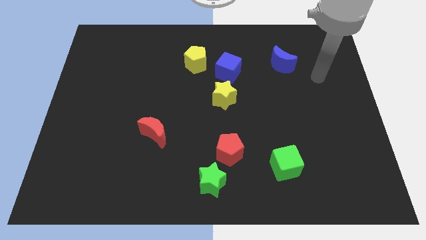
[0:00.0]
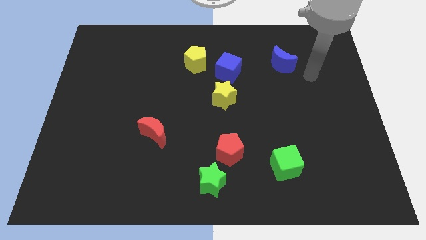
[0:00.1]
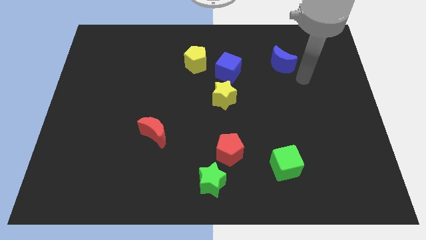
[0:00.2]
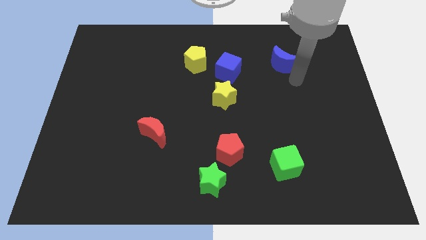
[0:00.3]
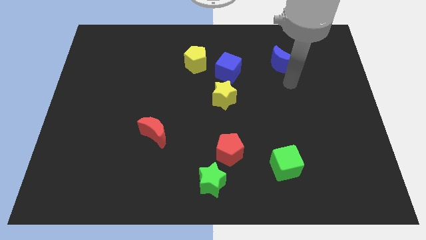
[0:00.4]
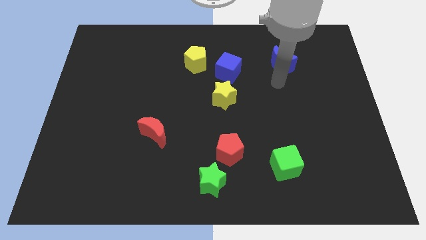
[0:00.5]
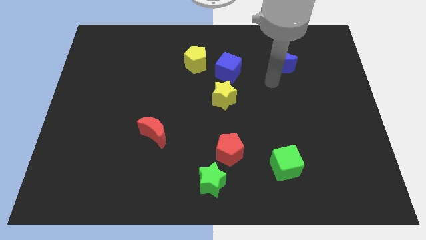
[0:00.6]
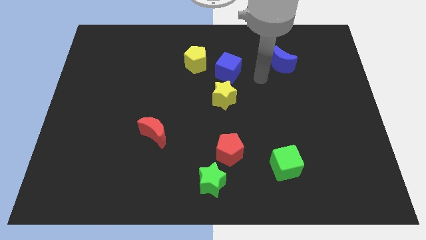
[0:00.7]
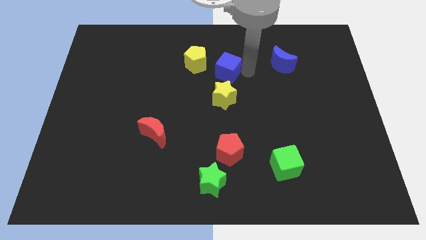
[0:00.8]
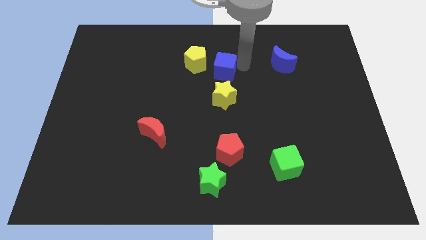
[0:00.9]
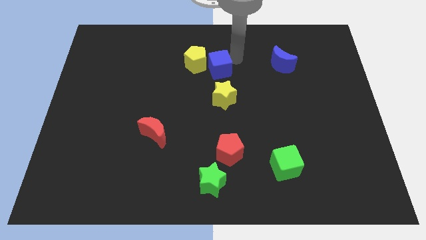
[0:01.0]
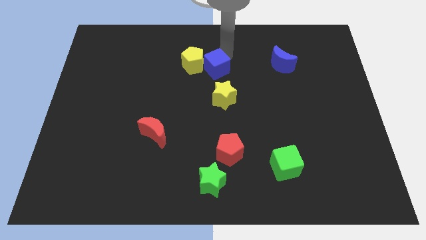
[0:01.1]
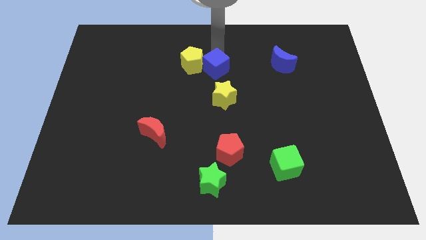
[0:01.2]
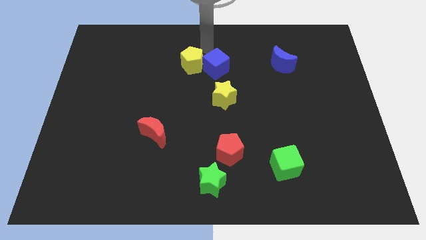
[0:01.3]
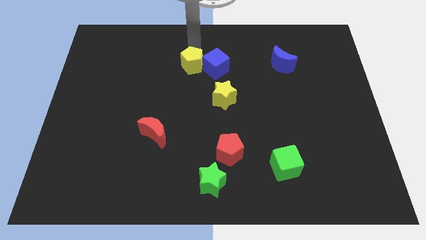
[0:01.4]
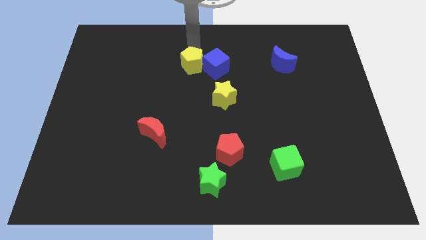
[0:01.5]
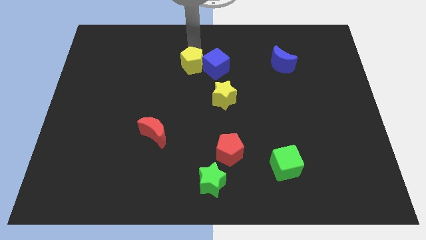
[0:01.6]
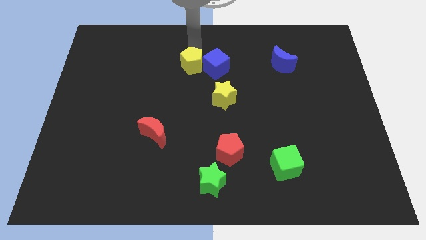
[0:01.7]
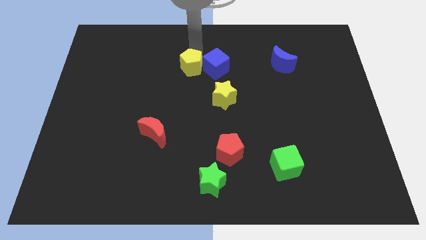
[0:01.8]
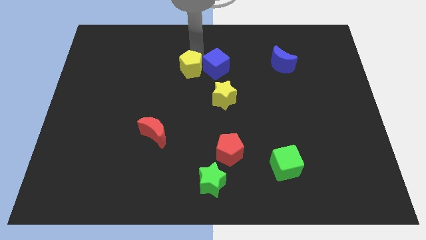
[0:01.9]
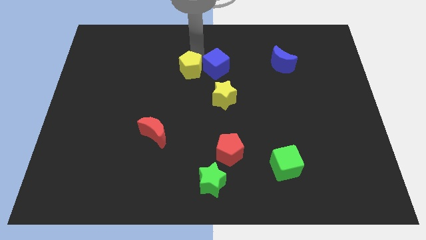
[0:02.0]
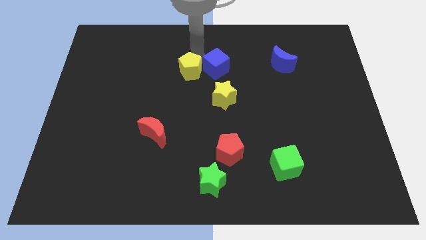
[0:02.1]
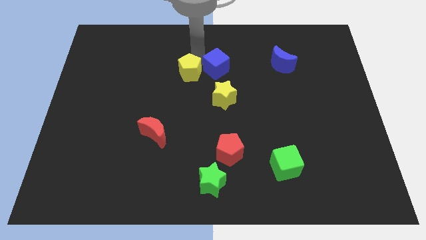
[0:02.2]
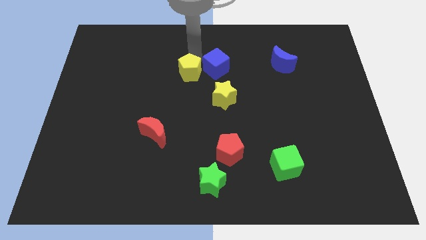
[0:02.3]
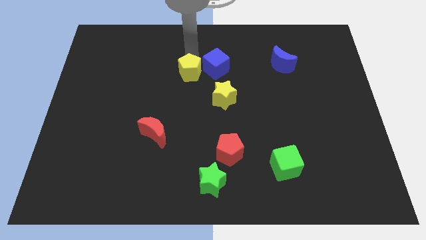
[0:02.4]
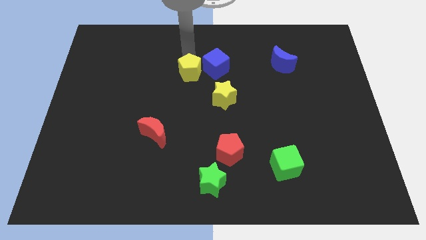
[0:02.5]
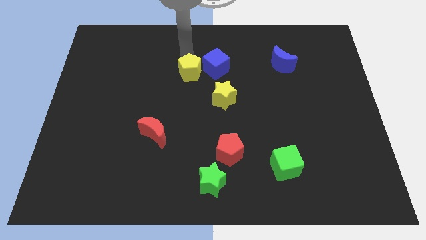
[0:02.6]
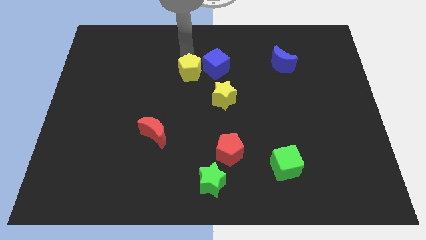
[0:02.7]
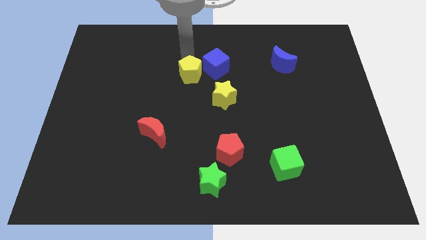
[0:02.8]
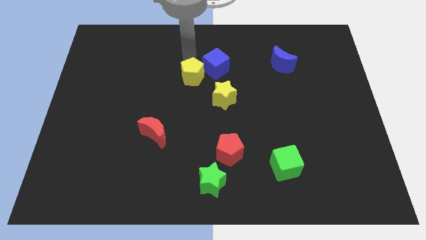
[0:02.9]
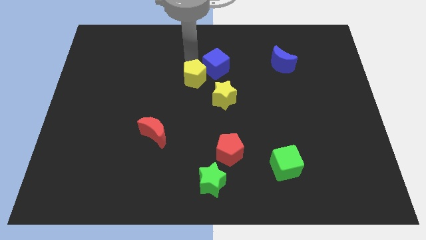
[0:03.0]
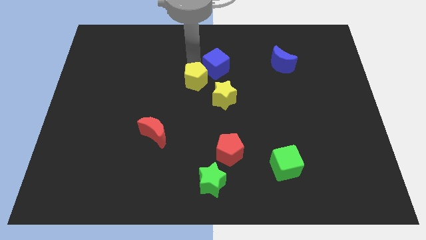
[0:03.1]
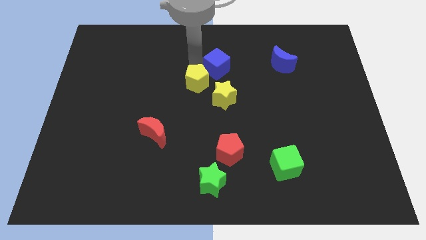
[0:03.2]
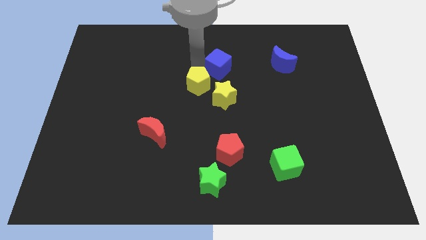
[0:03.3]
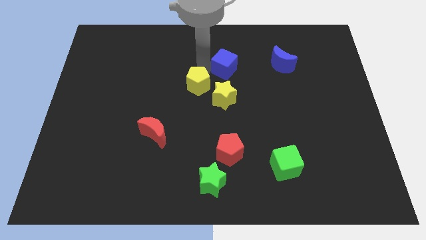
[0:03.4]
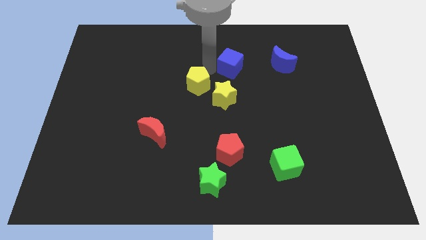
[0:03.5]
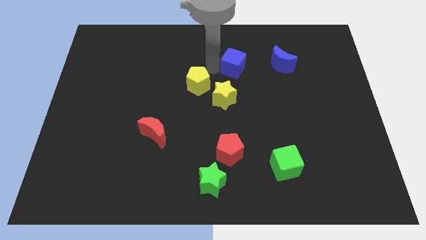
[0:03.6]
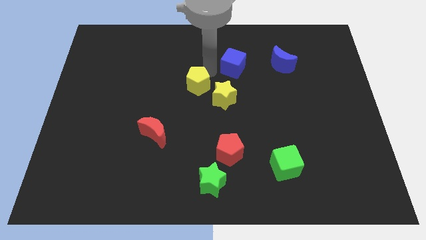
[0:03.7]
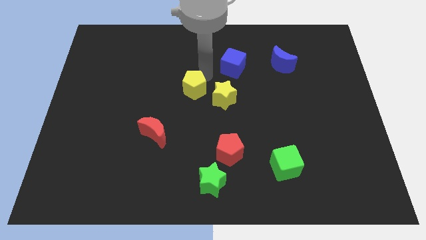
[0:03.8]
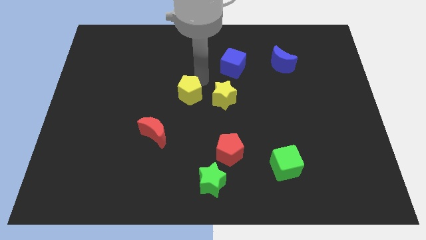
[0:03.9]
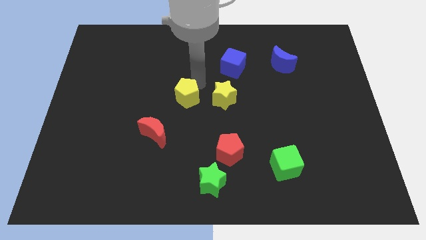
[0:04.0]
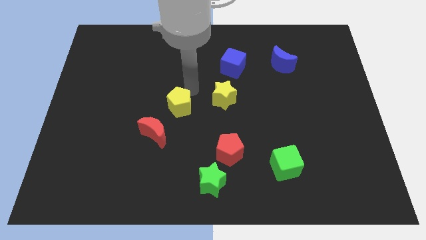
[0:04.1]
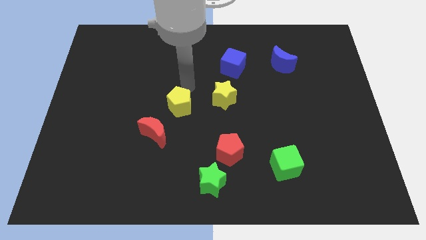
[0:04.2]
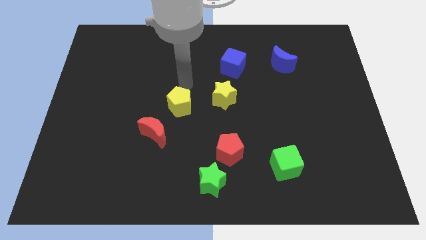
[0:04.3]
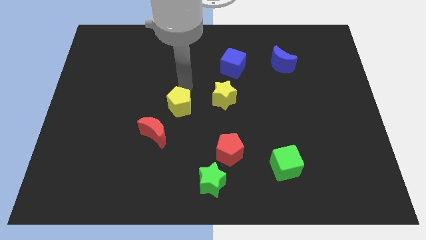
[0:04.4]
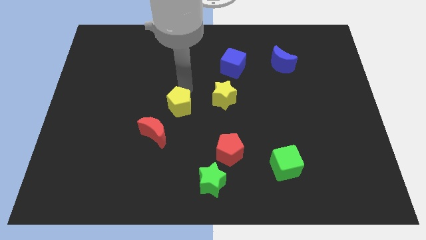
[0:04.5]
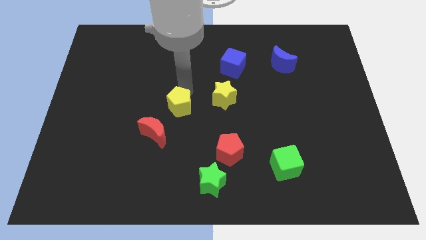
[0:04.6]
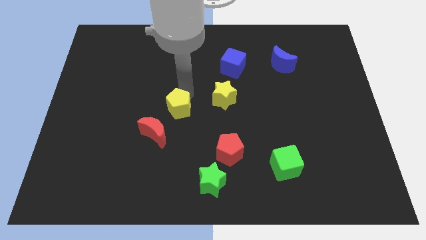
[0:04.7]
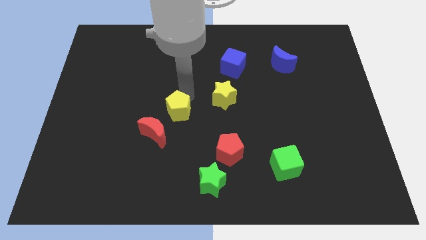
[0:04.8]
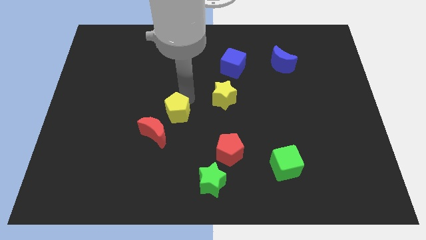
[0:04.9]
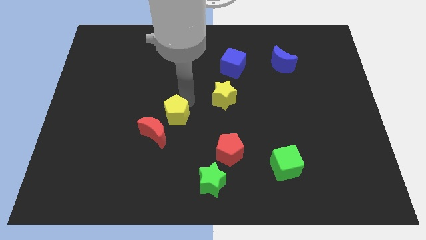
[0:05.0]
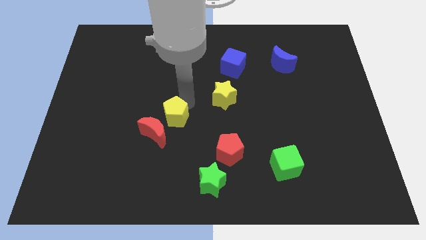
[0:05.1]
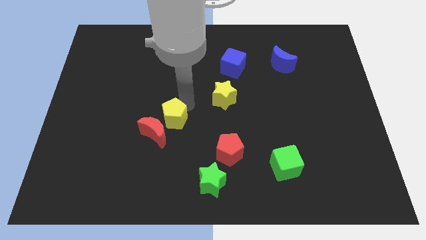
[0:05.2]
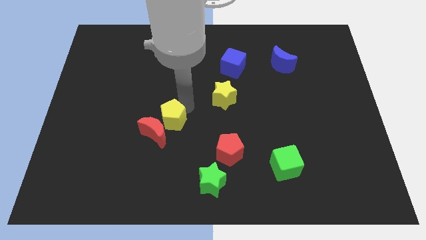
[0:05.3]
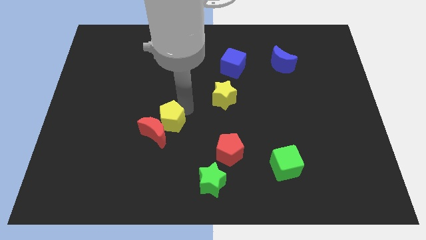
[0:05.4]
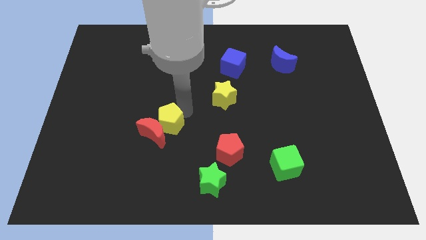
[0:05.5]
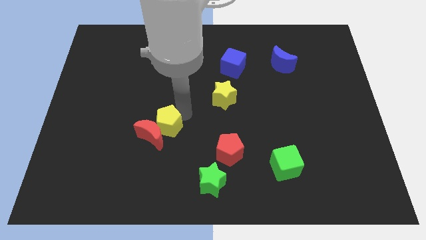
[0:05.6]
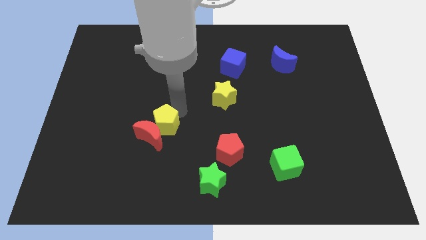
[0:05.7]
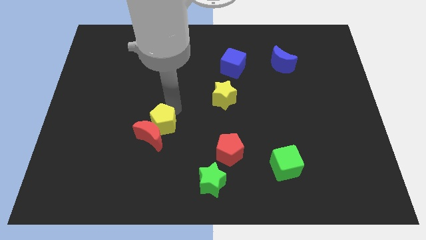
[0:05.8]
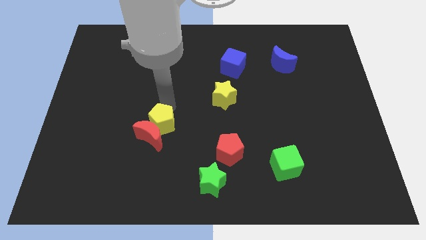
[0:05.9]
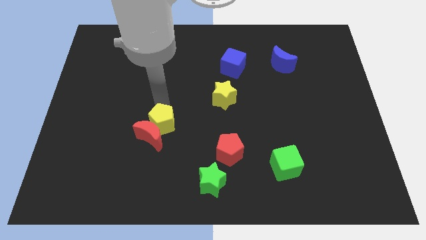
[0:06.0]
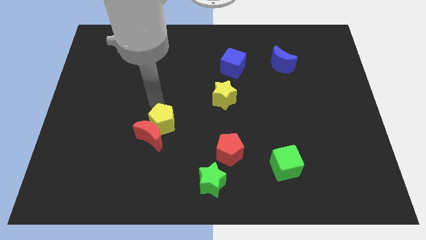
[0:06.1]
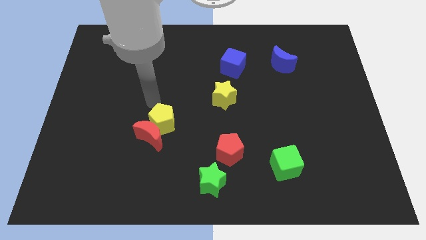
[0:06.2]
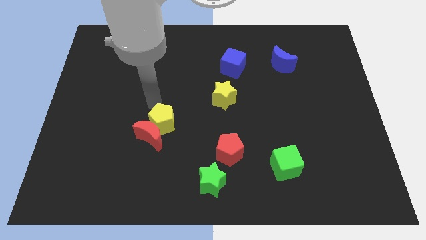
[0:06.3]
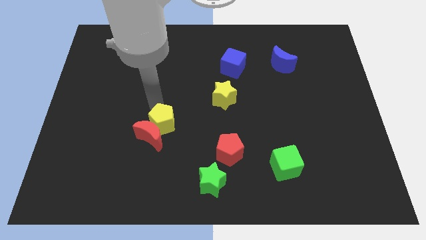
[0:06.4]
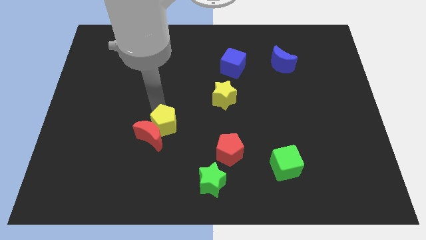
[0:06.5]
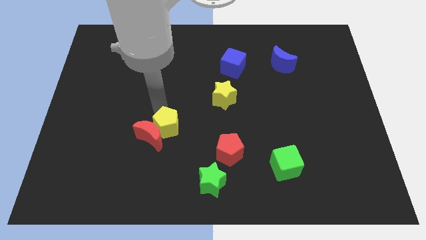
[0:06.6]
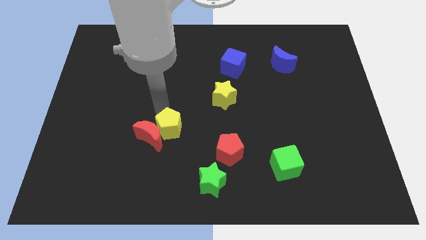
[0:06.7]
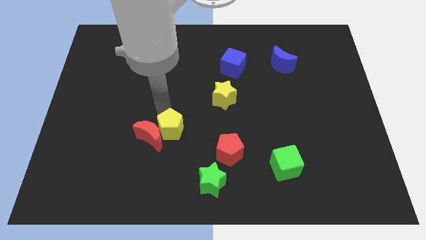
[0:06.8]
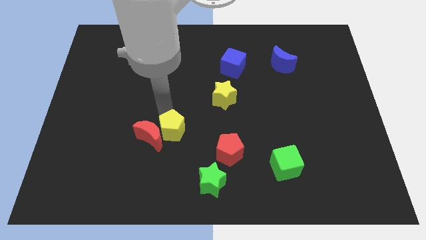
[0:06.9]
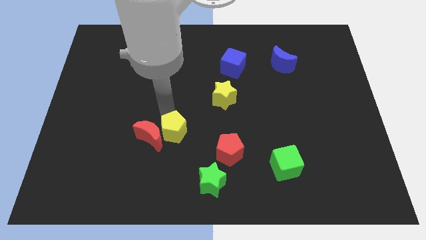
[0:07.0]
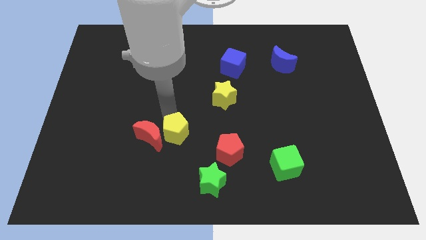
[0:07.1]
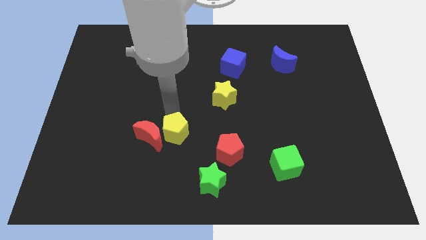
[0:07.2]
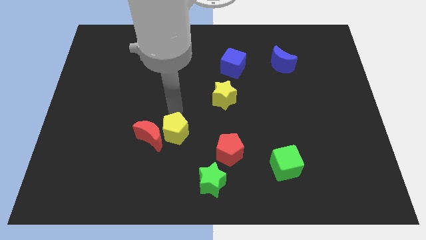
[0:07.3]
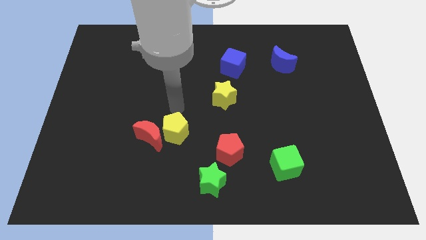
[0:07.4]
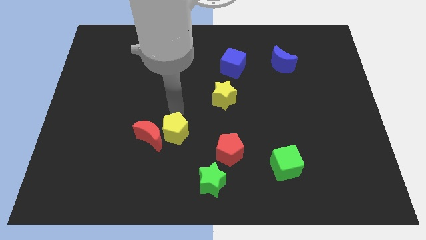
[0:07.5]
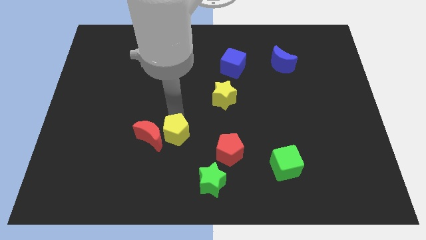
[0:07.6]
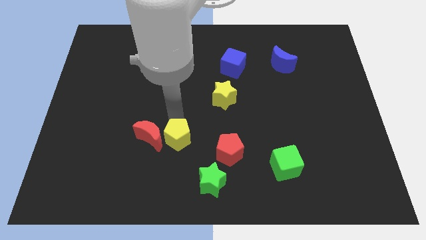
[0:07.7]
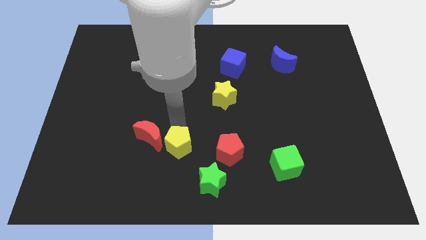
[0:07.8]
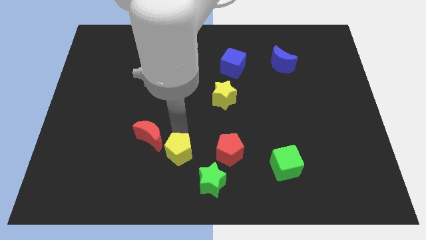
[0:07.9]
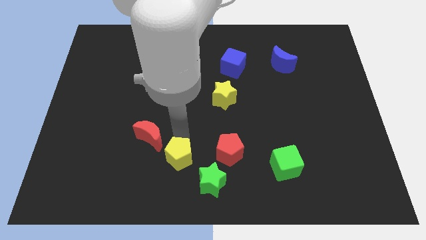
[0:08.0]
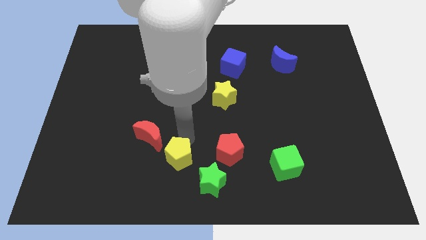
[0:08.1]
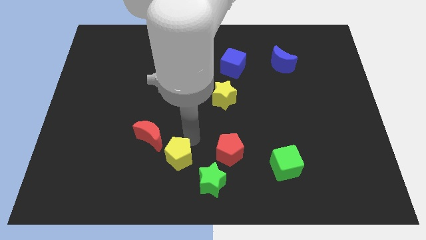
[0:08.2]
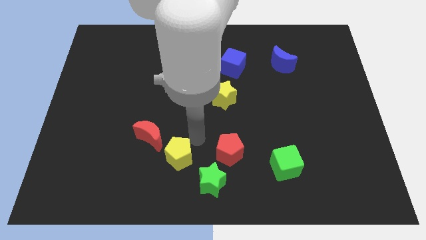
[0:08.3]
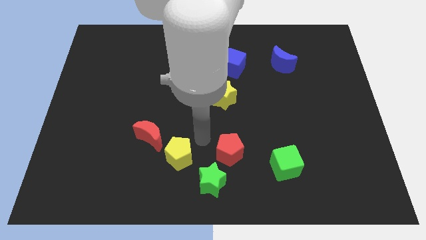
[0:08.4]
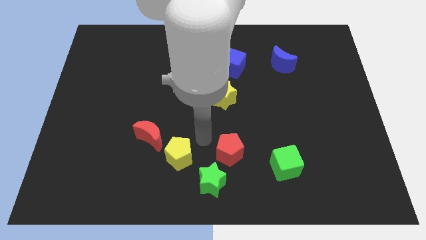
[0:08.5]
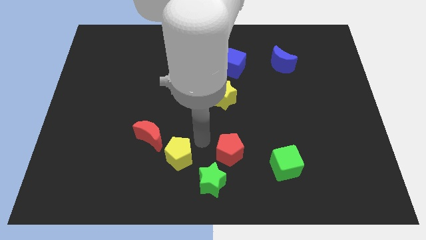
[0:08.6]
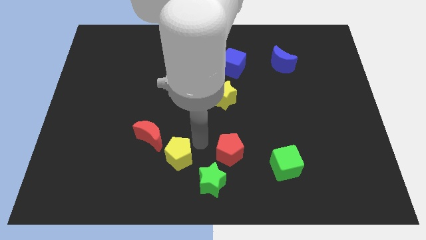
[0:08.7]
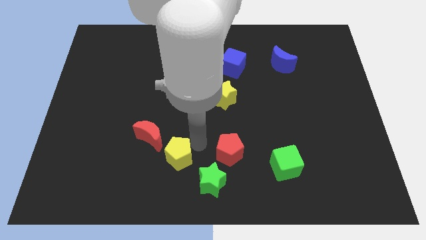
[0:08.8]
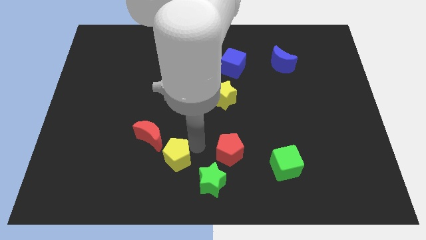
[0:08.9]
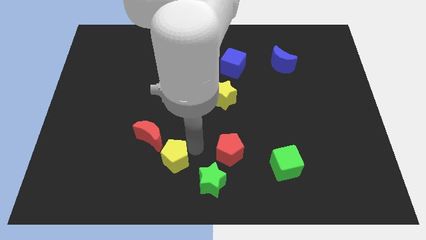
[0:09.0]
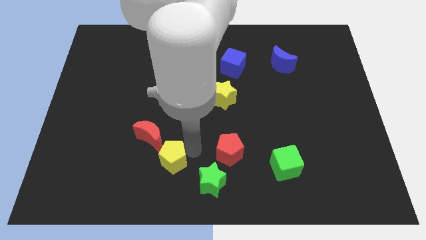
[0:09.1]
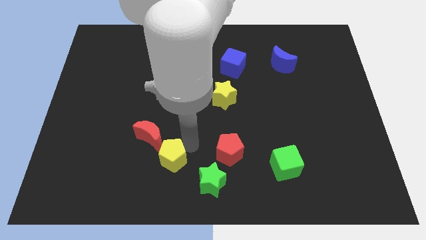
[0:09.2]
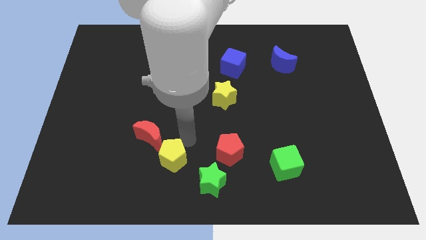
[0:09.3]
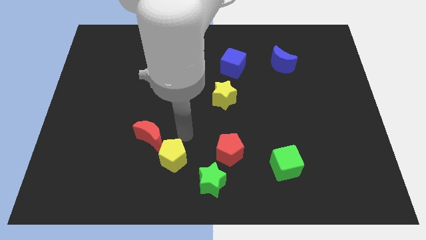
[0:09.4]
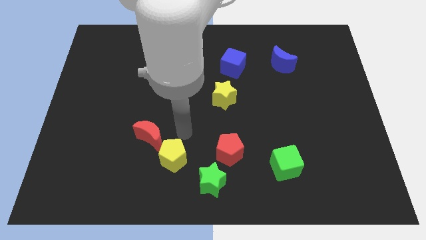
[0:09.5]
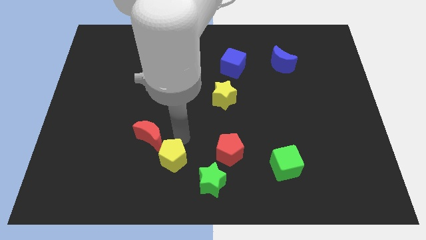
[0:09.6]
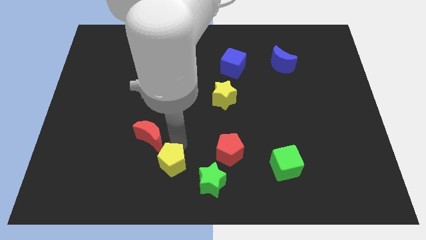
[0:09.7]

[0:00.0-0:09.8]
move the yellow pentagon just left of the green star
